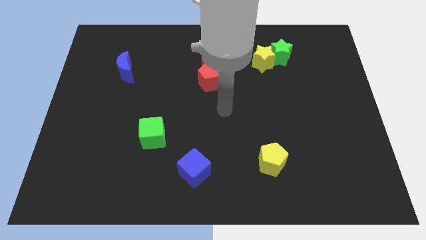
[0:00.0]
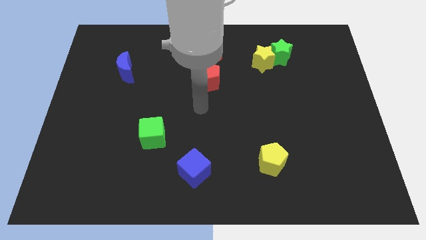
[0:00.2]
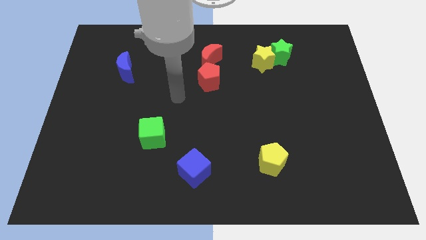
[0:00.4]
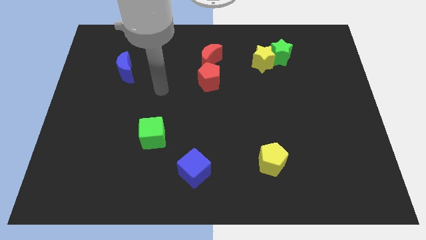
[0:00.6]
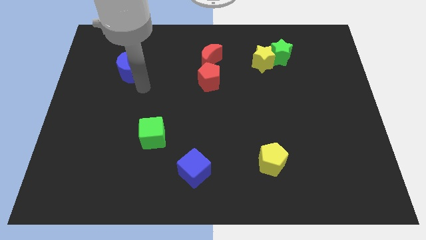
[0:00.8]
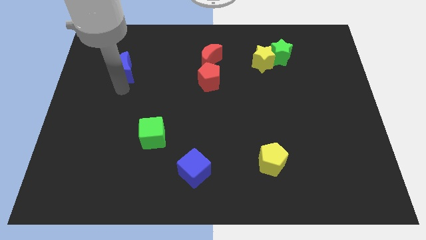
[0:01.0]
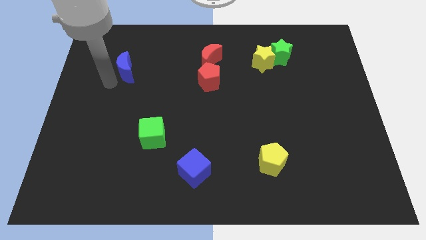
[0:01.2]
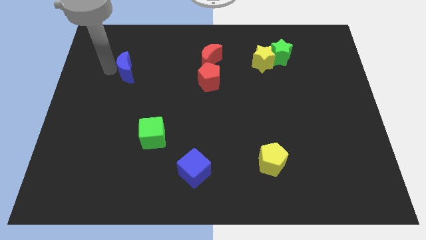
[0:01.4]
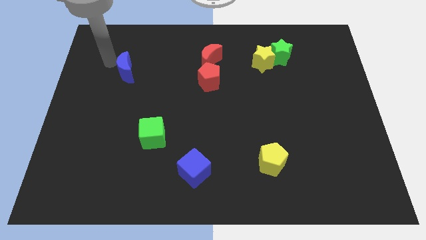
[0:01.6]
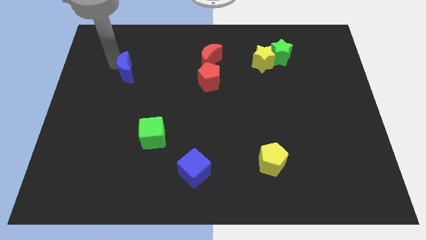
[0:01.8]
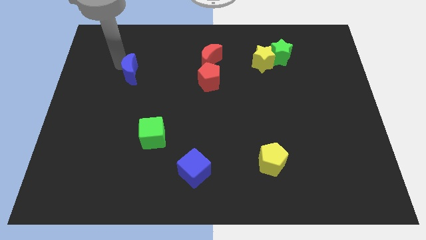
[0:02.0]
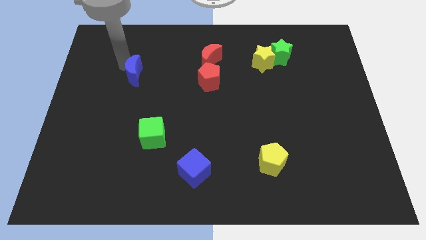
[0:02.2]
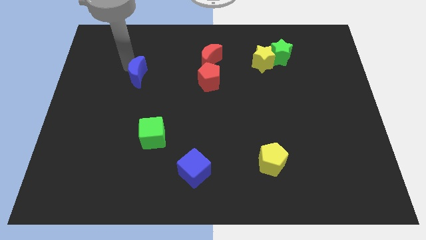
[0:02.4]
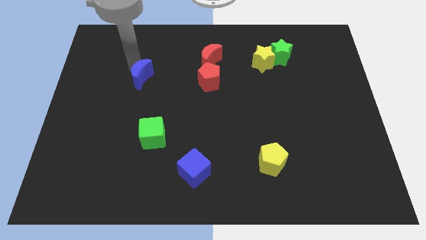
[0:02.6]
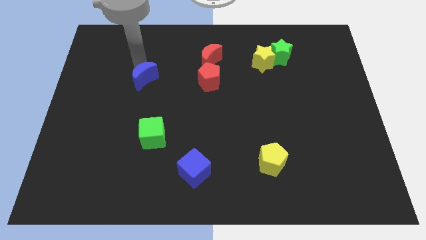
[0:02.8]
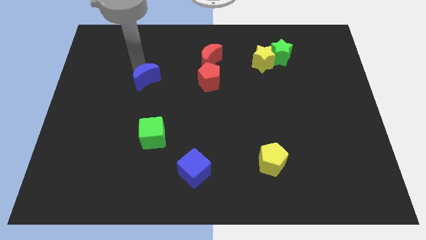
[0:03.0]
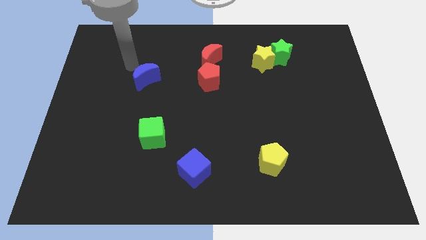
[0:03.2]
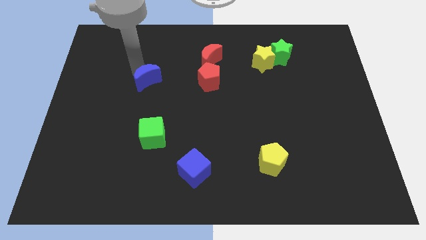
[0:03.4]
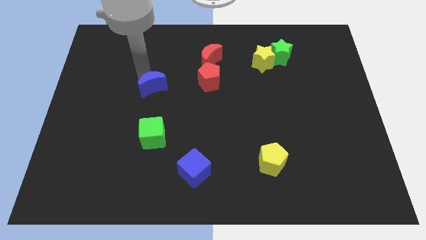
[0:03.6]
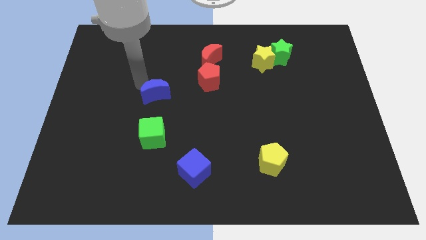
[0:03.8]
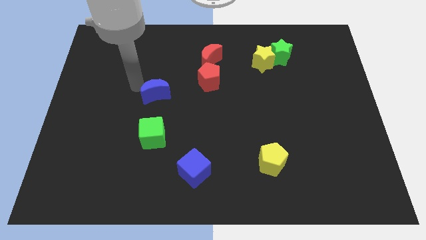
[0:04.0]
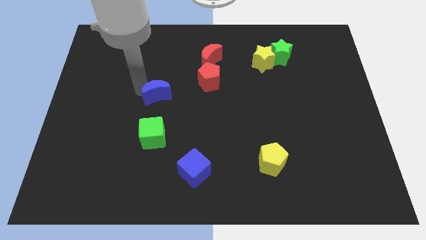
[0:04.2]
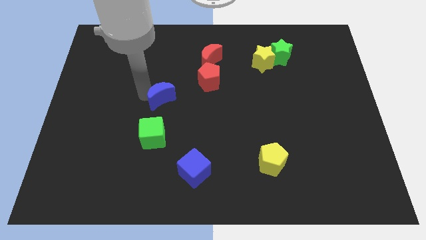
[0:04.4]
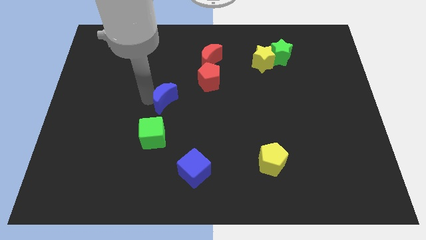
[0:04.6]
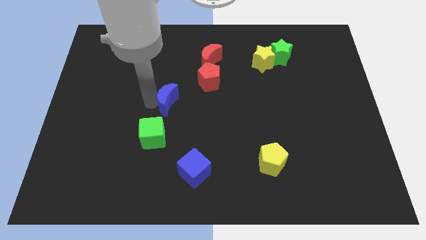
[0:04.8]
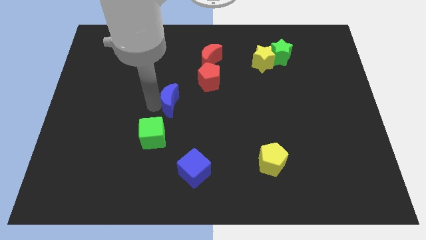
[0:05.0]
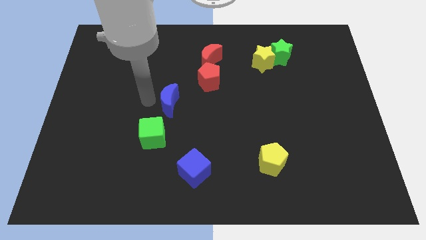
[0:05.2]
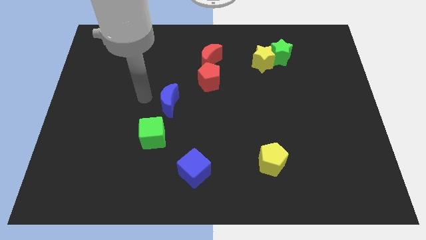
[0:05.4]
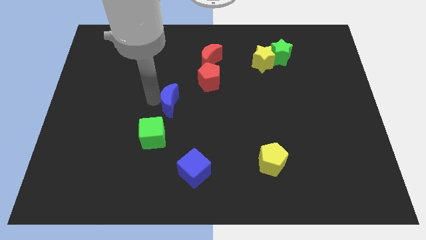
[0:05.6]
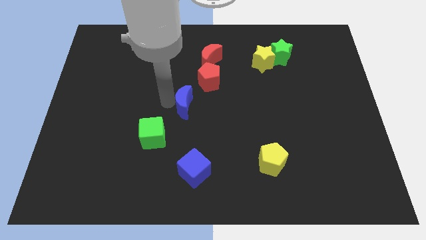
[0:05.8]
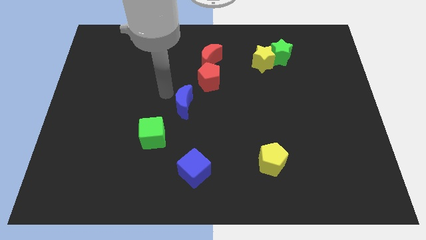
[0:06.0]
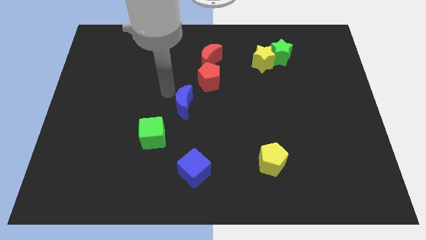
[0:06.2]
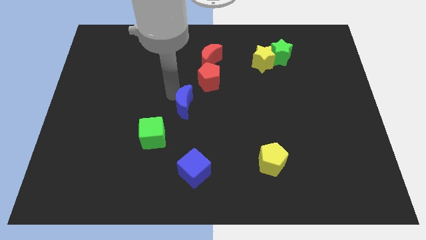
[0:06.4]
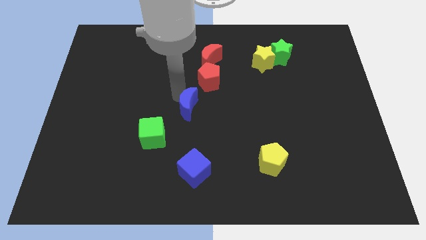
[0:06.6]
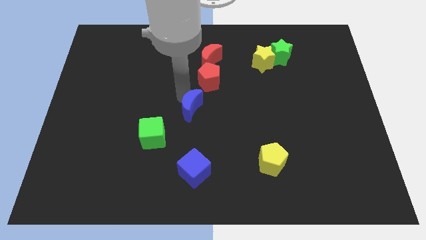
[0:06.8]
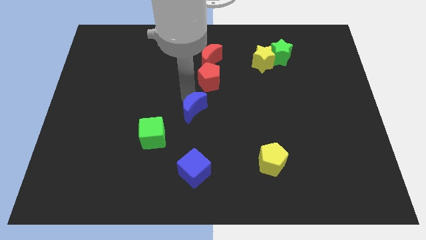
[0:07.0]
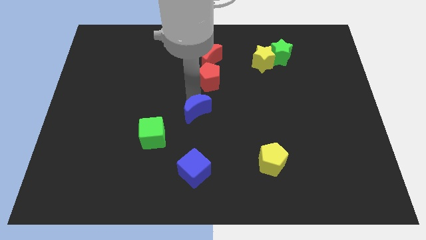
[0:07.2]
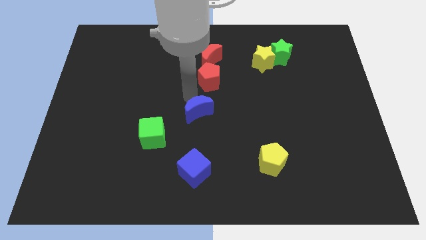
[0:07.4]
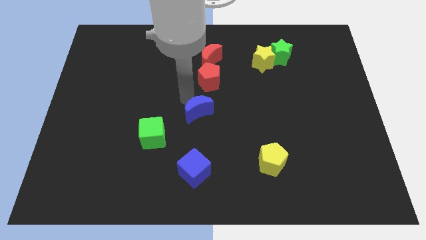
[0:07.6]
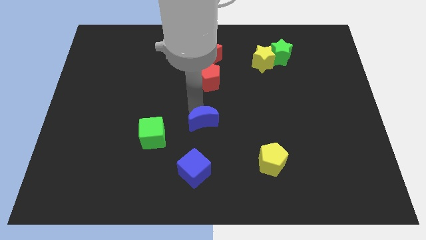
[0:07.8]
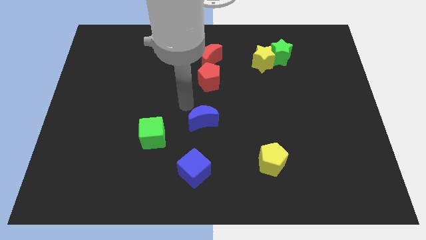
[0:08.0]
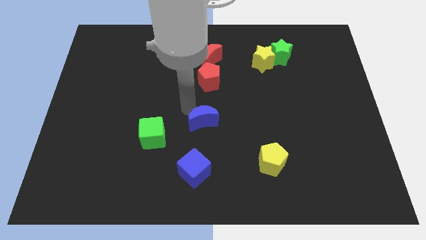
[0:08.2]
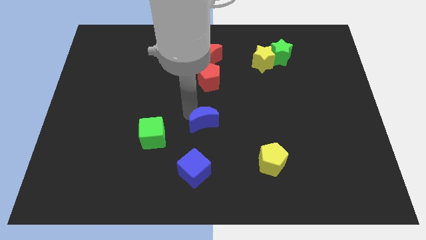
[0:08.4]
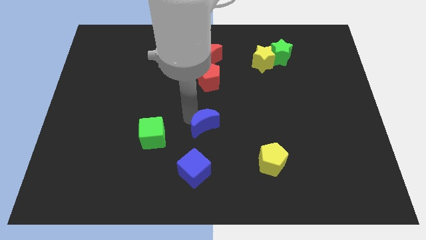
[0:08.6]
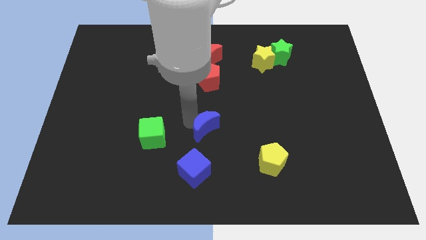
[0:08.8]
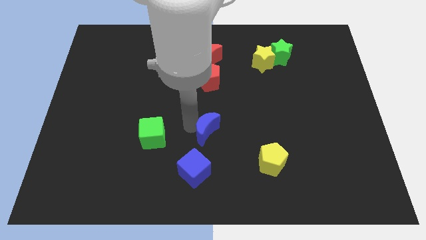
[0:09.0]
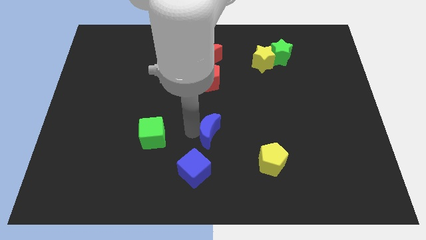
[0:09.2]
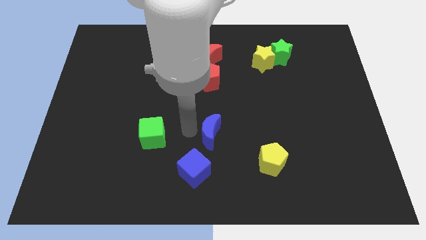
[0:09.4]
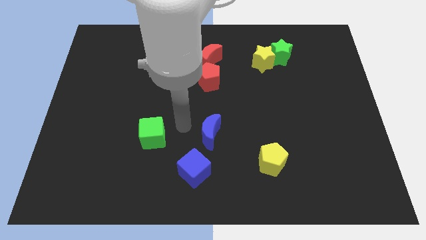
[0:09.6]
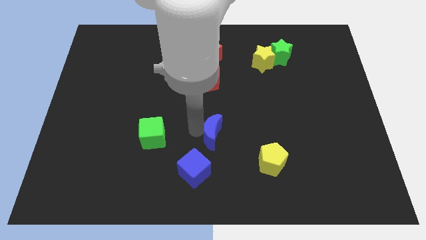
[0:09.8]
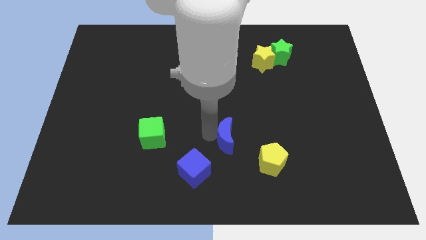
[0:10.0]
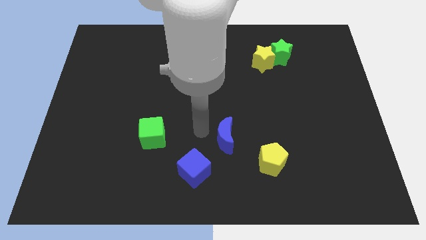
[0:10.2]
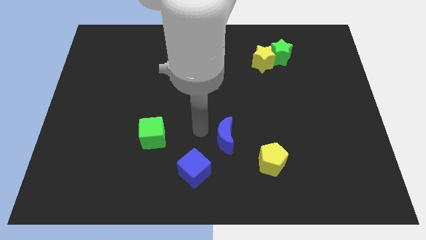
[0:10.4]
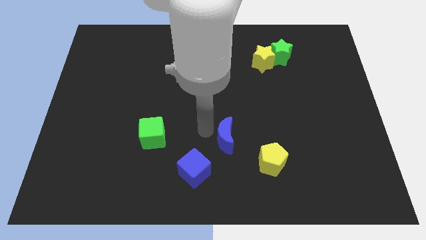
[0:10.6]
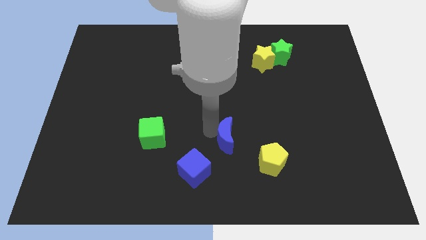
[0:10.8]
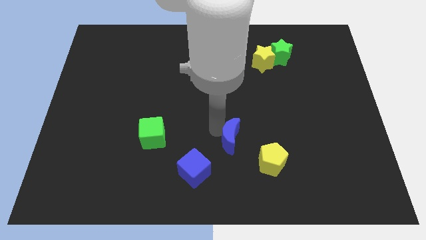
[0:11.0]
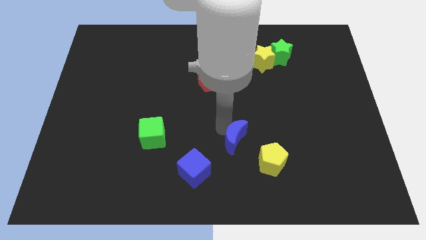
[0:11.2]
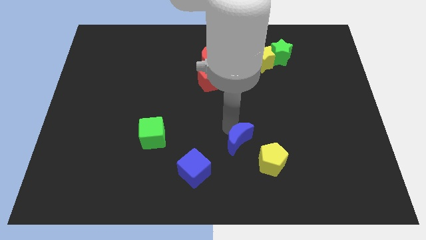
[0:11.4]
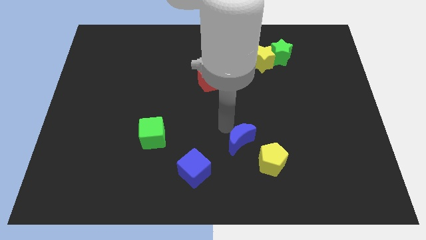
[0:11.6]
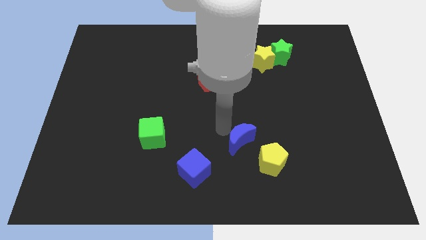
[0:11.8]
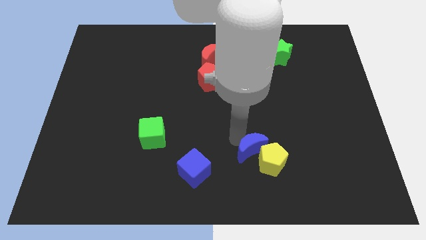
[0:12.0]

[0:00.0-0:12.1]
push the blue moon towards the yellow pentagon

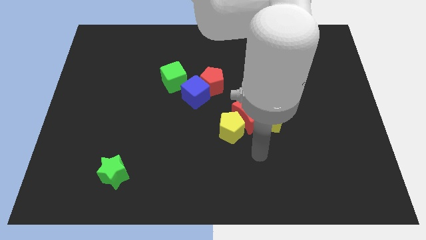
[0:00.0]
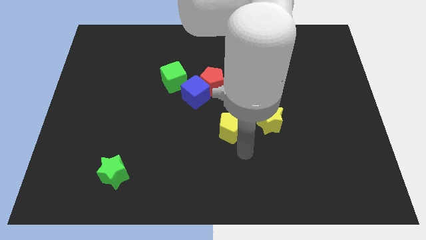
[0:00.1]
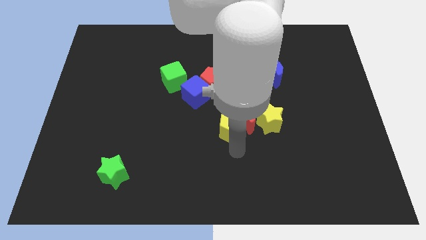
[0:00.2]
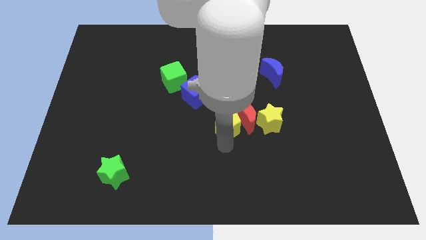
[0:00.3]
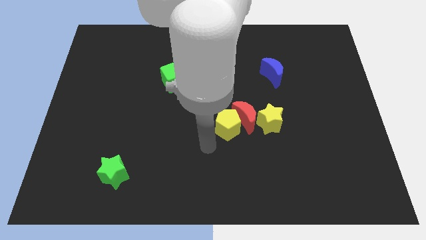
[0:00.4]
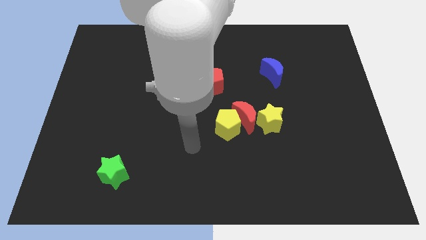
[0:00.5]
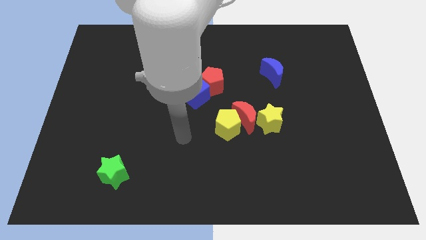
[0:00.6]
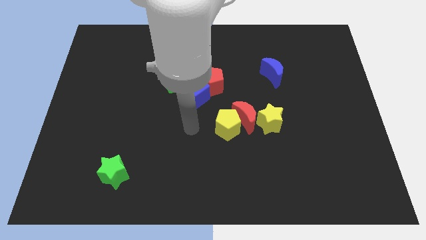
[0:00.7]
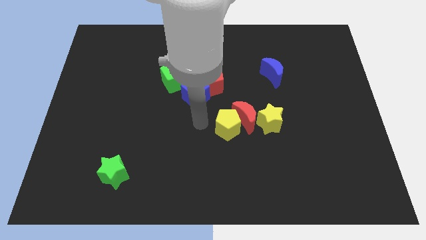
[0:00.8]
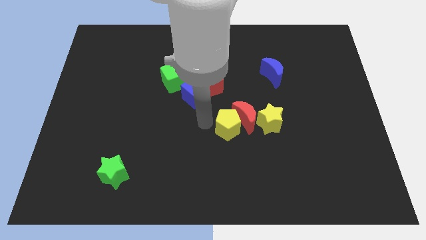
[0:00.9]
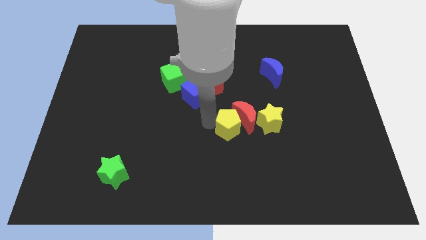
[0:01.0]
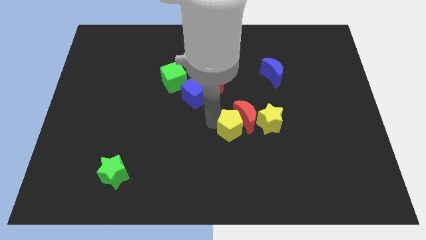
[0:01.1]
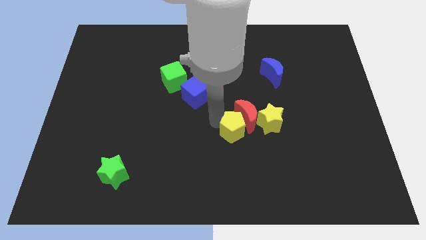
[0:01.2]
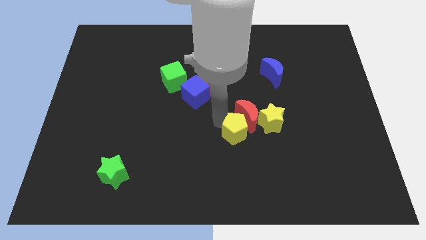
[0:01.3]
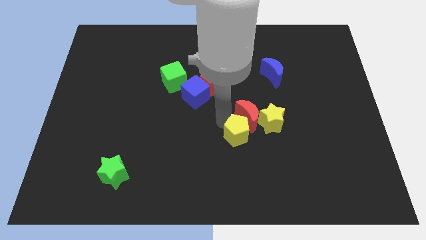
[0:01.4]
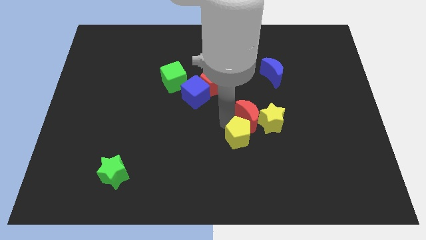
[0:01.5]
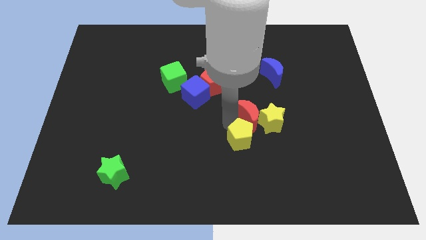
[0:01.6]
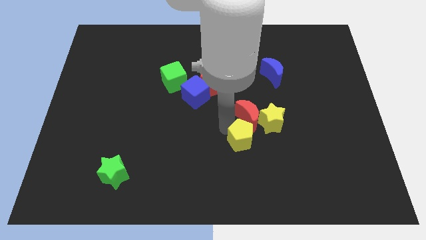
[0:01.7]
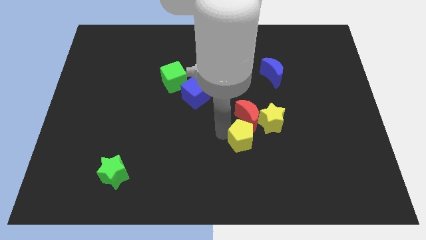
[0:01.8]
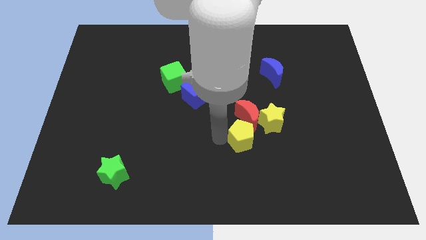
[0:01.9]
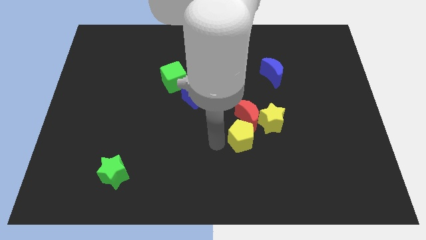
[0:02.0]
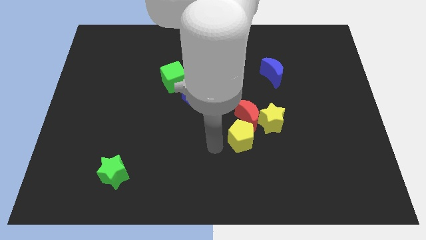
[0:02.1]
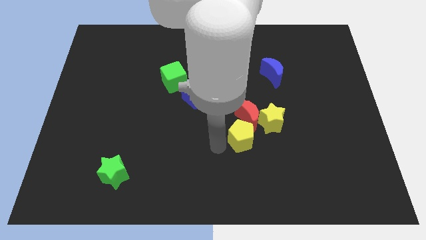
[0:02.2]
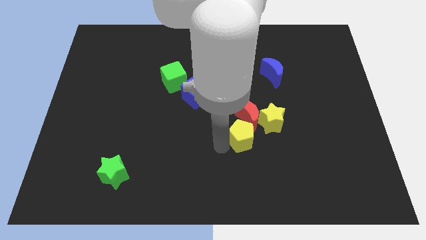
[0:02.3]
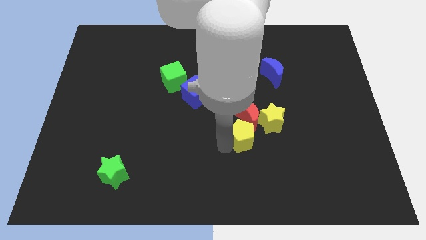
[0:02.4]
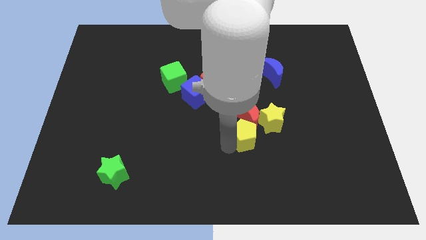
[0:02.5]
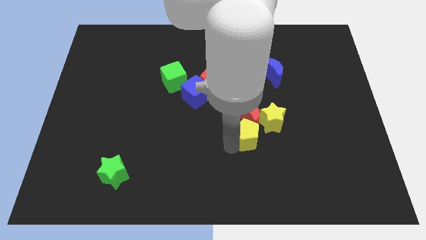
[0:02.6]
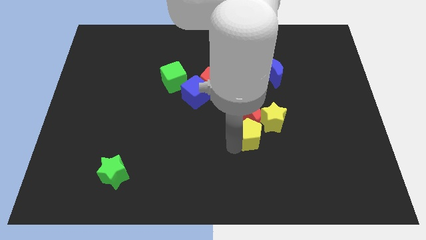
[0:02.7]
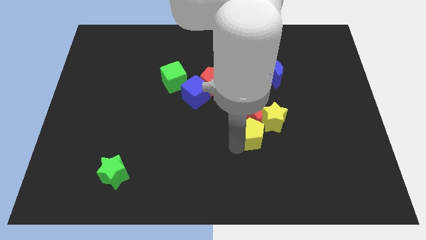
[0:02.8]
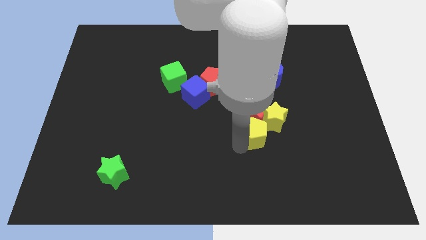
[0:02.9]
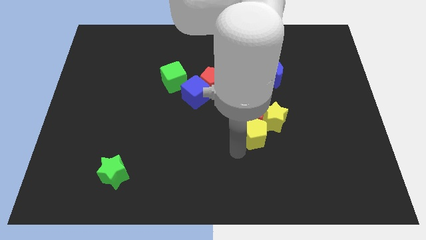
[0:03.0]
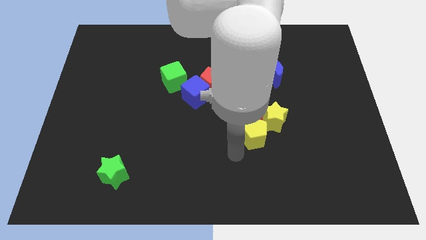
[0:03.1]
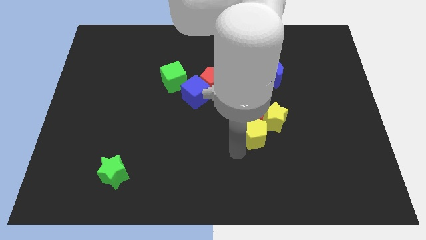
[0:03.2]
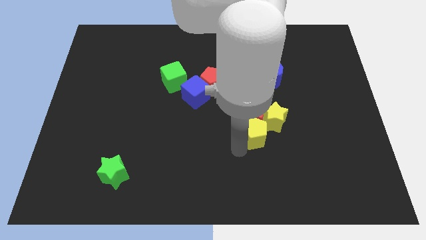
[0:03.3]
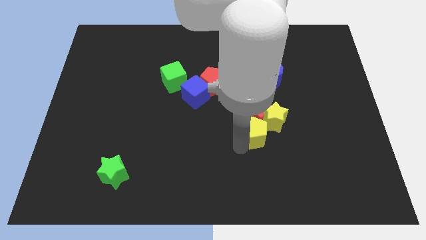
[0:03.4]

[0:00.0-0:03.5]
move the yellow pentagon to the yellow star
